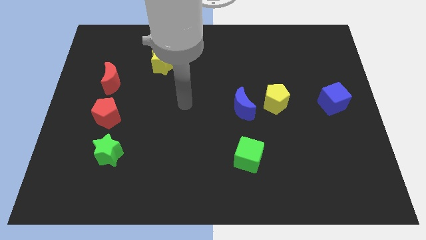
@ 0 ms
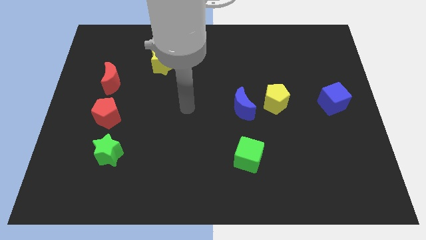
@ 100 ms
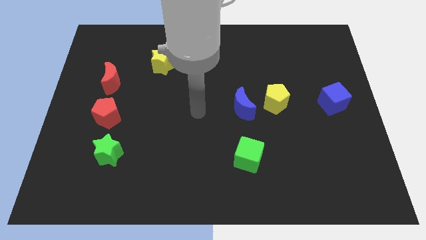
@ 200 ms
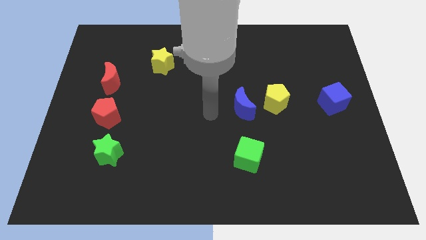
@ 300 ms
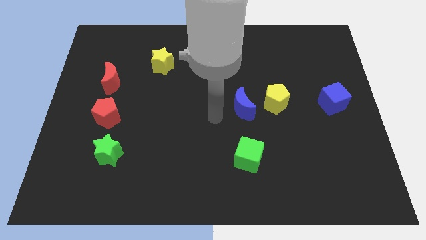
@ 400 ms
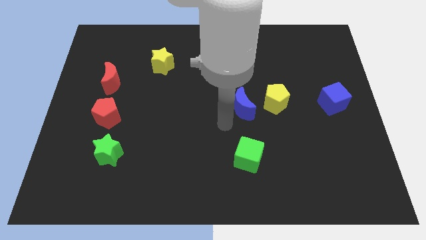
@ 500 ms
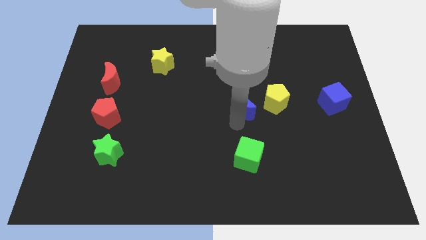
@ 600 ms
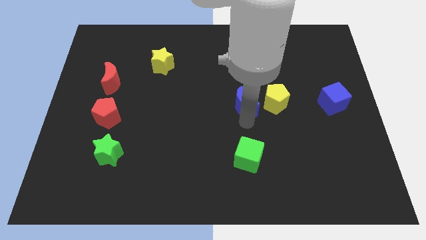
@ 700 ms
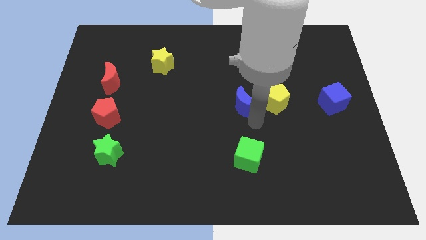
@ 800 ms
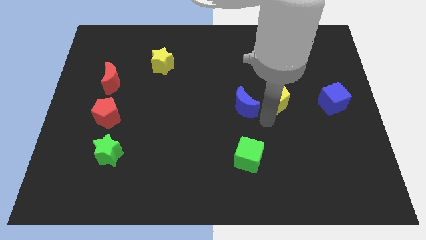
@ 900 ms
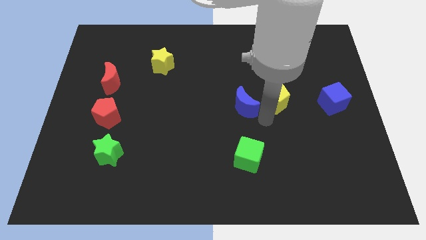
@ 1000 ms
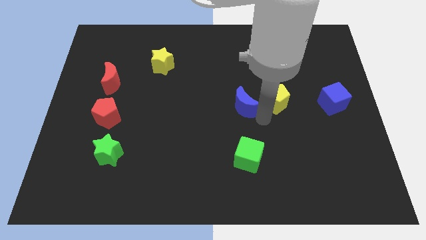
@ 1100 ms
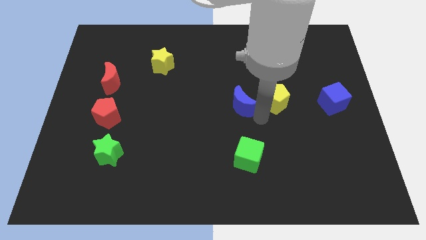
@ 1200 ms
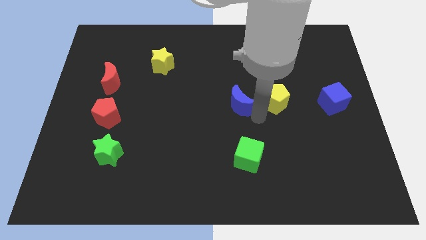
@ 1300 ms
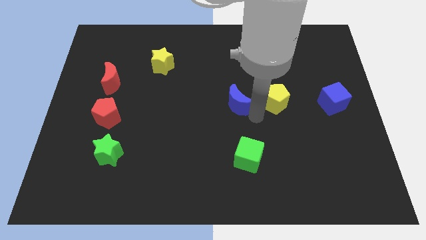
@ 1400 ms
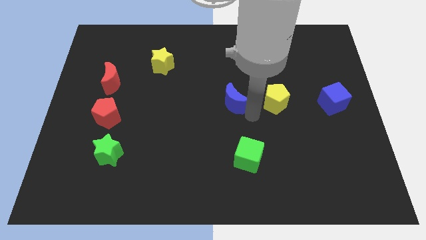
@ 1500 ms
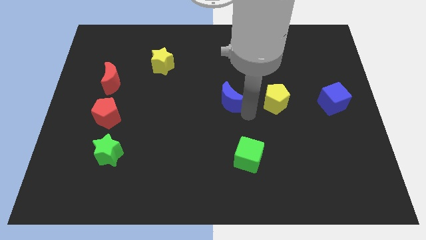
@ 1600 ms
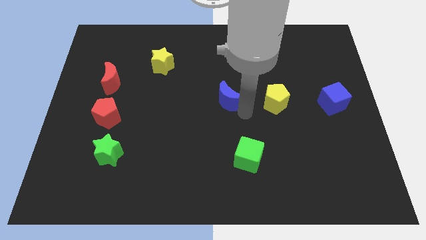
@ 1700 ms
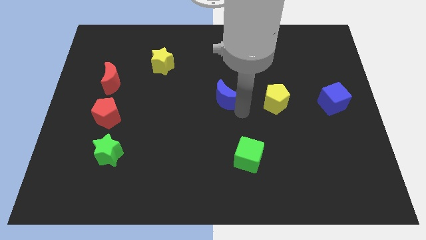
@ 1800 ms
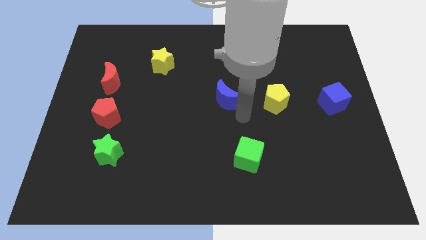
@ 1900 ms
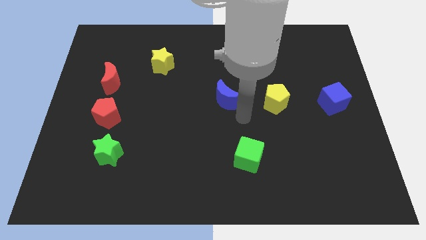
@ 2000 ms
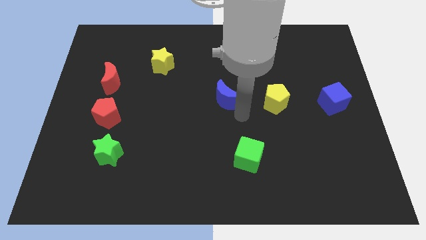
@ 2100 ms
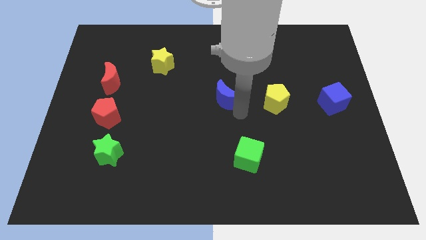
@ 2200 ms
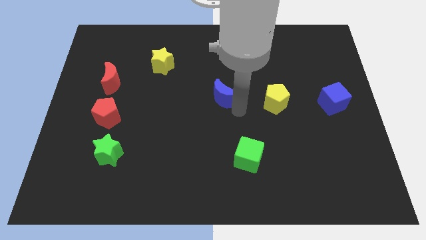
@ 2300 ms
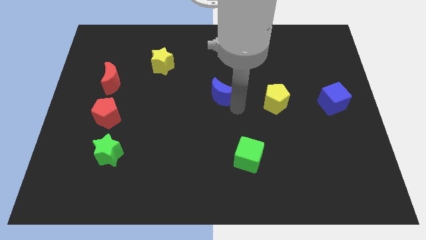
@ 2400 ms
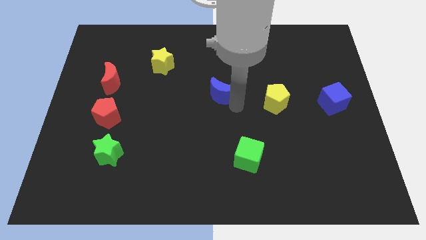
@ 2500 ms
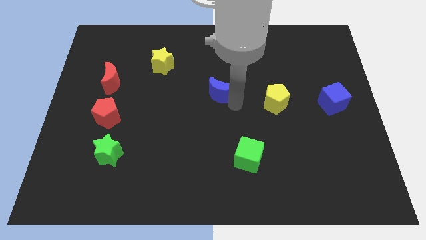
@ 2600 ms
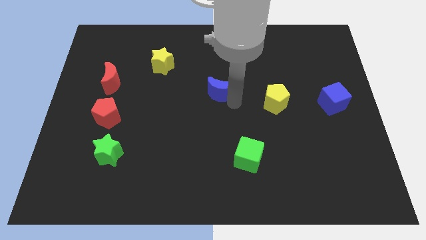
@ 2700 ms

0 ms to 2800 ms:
slide the blue moon diagonally upwards and to the left a bit

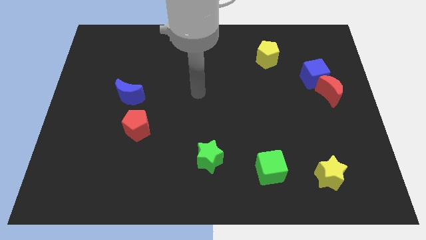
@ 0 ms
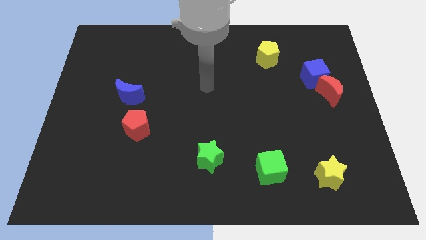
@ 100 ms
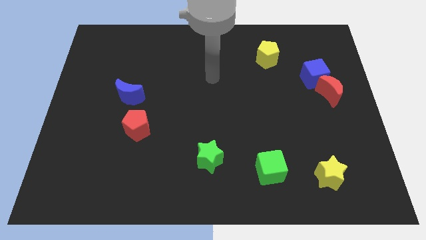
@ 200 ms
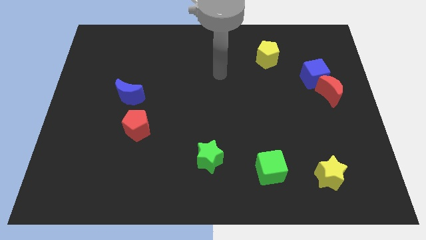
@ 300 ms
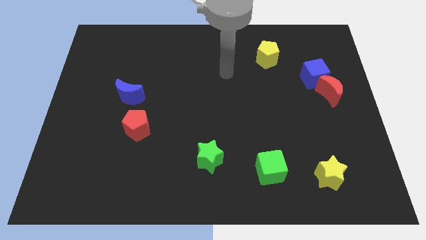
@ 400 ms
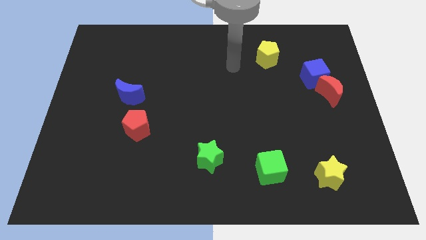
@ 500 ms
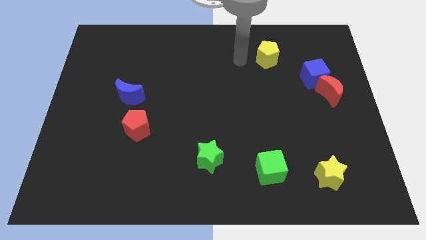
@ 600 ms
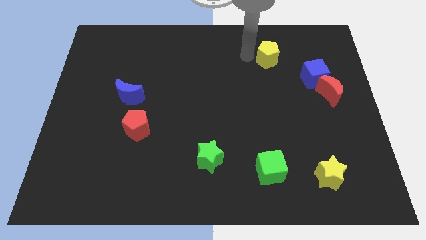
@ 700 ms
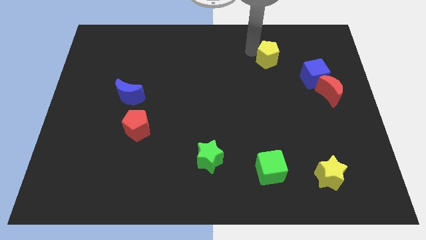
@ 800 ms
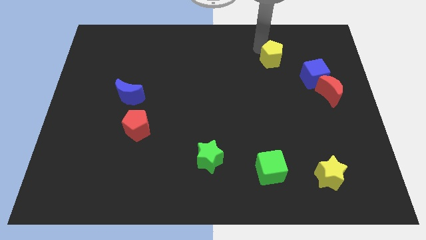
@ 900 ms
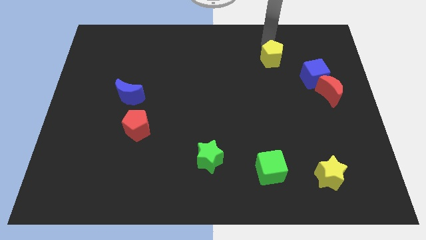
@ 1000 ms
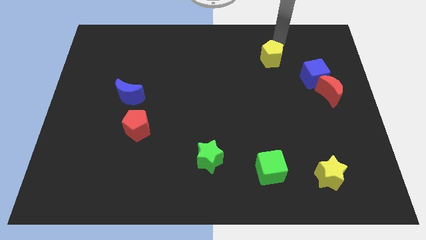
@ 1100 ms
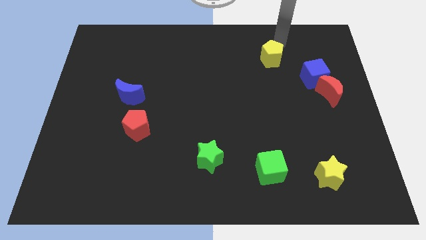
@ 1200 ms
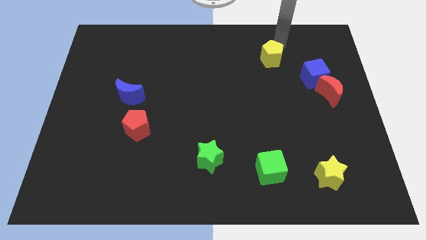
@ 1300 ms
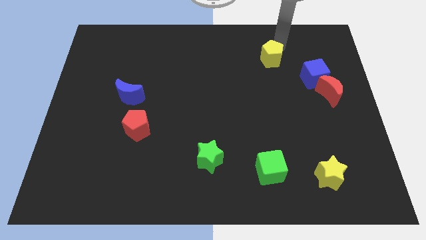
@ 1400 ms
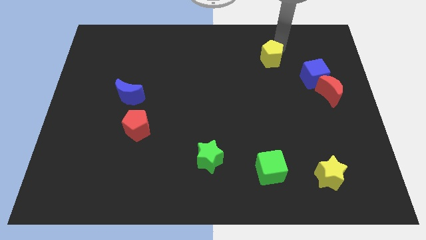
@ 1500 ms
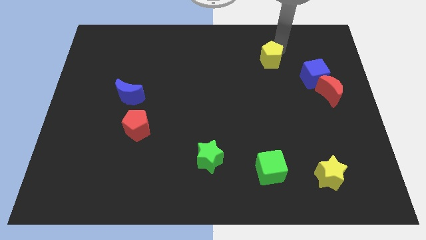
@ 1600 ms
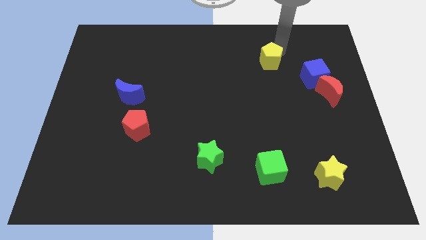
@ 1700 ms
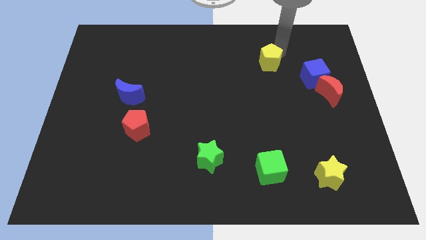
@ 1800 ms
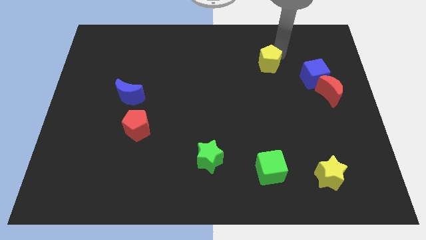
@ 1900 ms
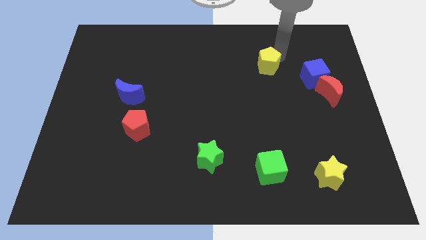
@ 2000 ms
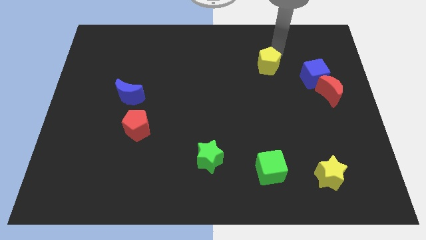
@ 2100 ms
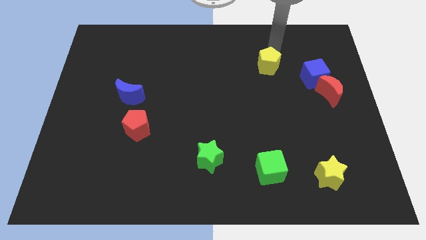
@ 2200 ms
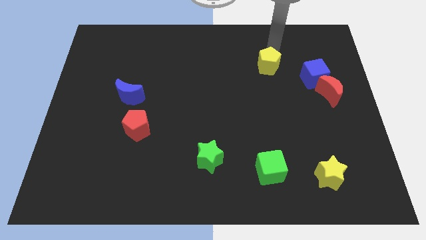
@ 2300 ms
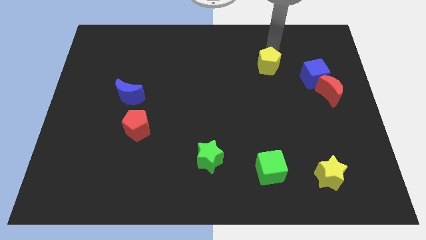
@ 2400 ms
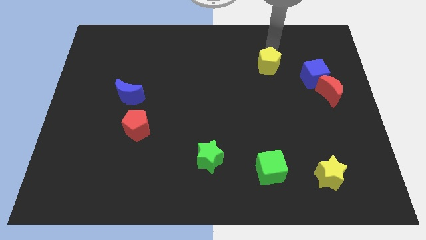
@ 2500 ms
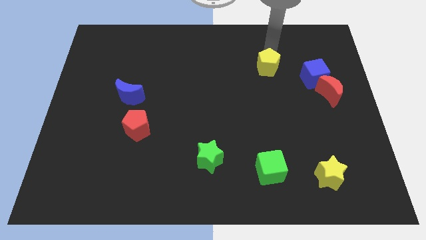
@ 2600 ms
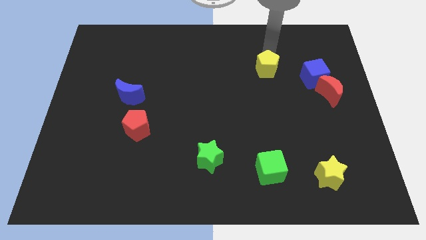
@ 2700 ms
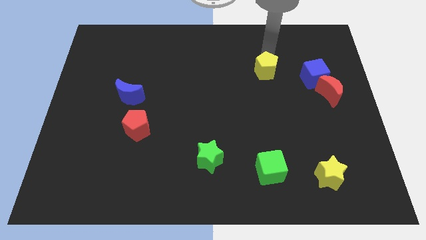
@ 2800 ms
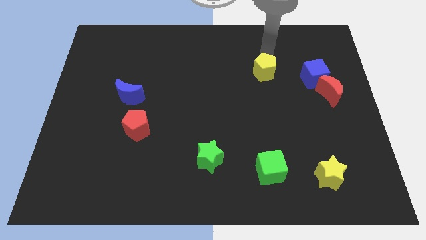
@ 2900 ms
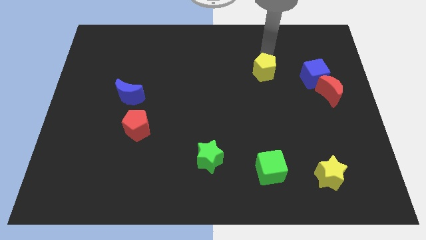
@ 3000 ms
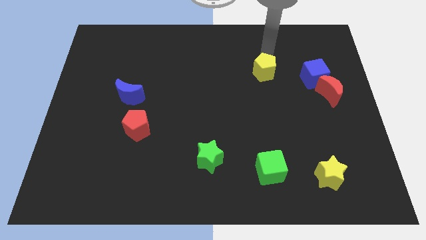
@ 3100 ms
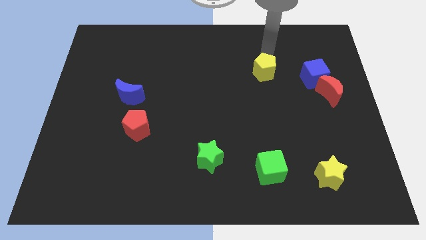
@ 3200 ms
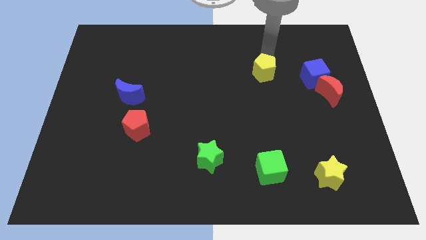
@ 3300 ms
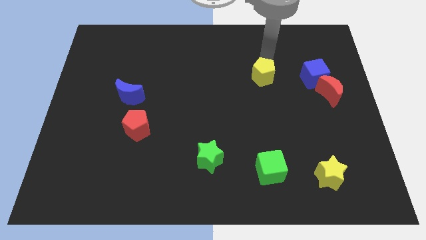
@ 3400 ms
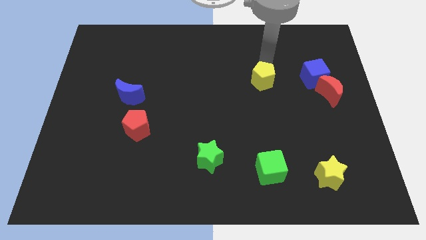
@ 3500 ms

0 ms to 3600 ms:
push the yellow pentagon downwards a little bit

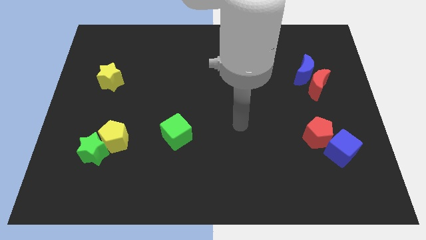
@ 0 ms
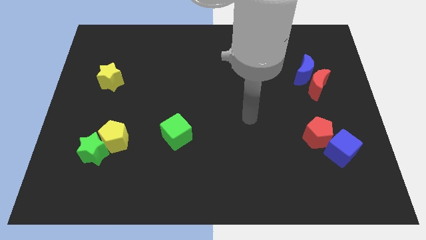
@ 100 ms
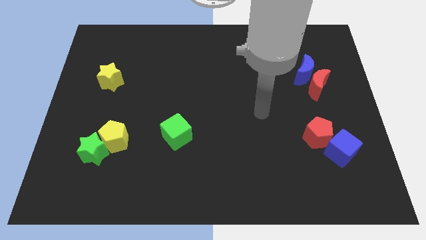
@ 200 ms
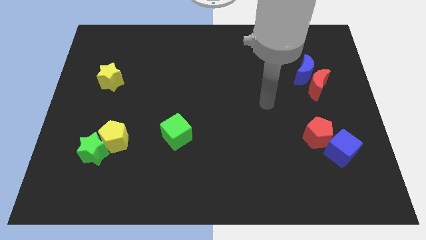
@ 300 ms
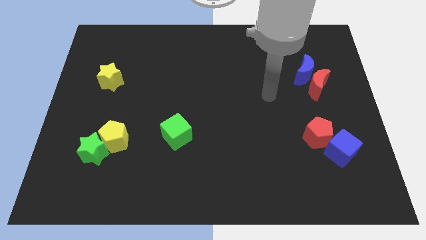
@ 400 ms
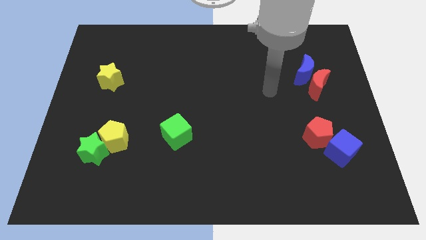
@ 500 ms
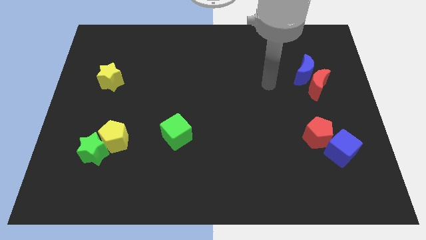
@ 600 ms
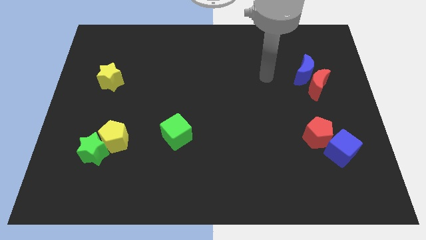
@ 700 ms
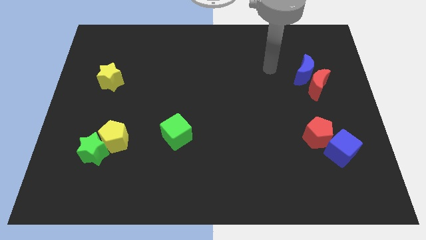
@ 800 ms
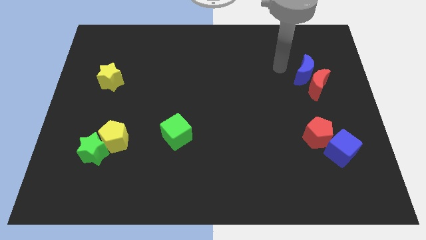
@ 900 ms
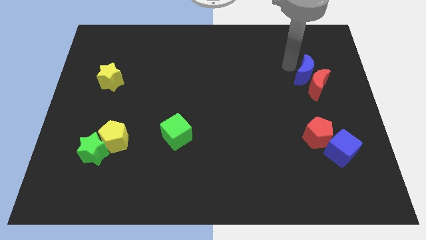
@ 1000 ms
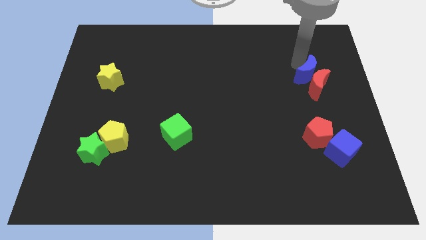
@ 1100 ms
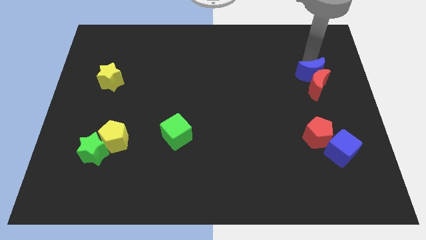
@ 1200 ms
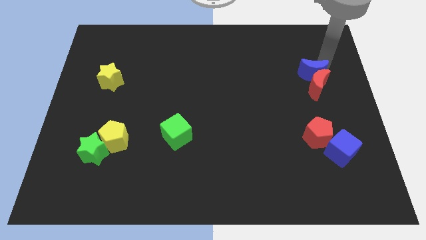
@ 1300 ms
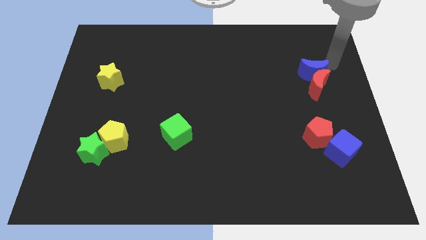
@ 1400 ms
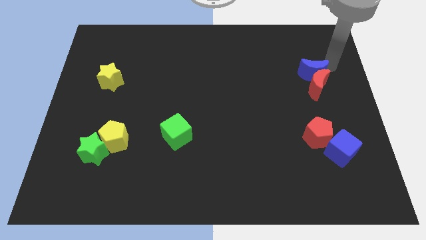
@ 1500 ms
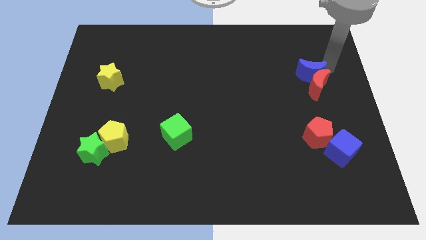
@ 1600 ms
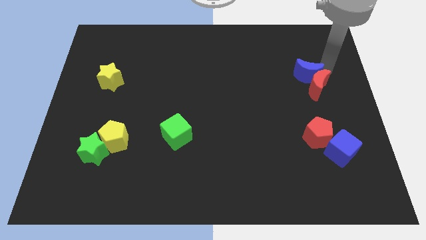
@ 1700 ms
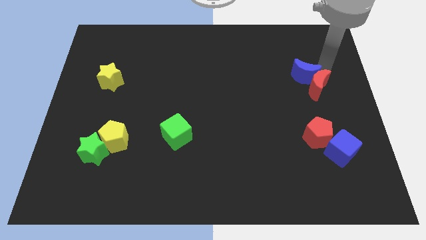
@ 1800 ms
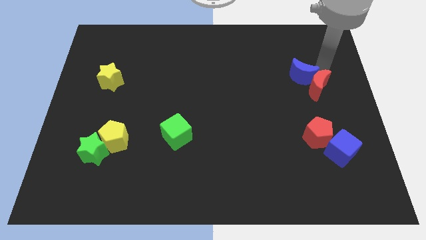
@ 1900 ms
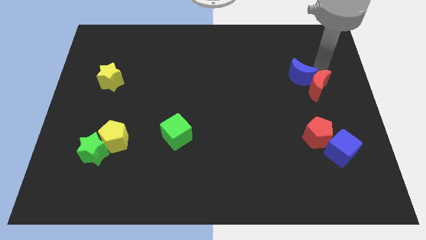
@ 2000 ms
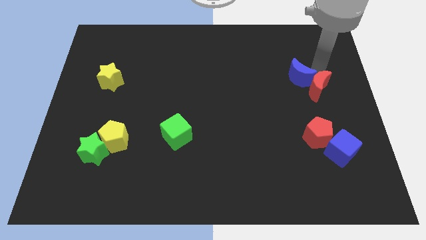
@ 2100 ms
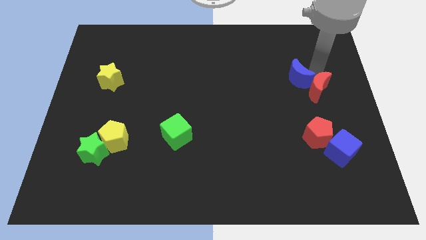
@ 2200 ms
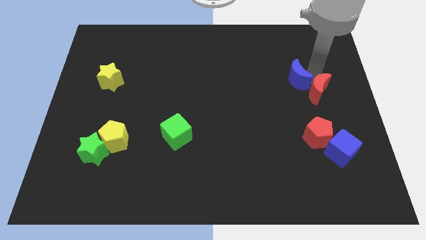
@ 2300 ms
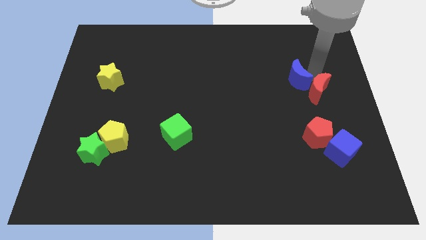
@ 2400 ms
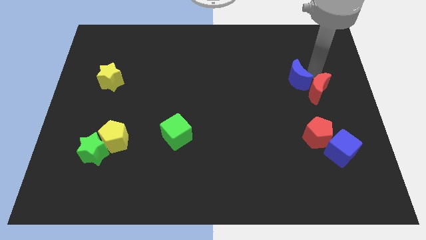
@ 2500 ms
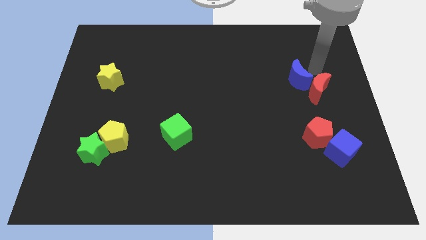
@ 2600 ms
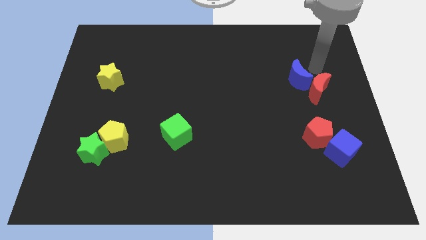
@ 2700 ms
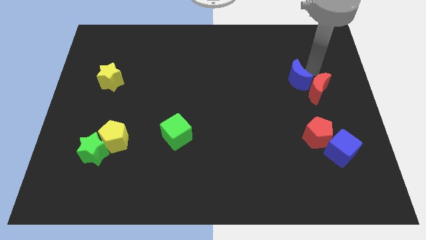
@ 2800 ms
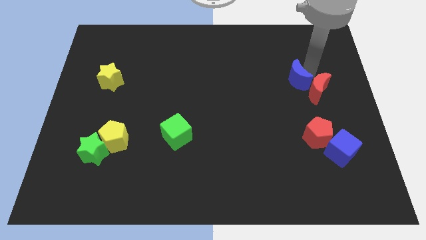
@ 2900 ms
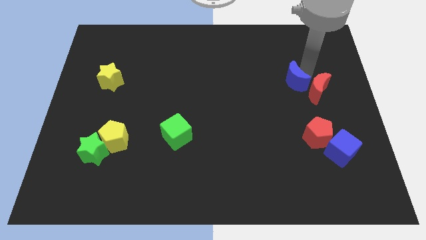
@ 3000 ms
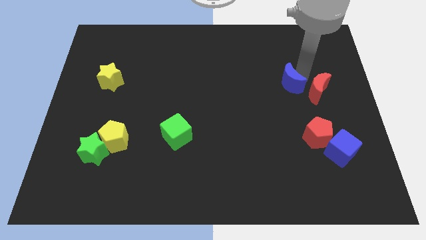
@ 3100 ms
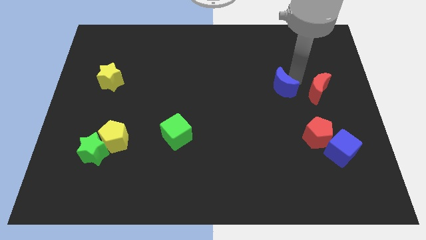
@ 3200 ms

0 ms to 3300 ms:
move the blue moon down and then to the left slightly
